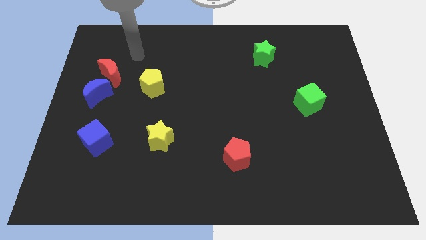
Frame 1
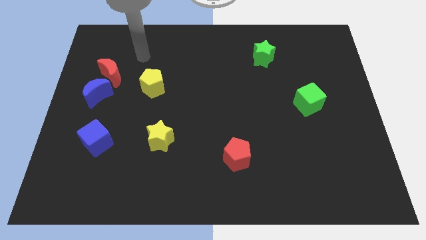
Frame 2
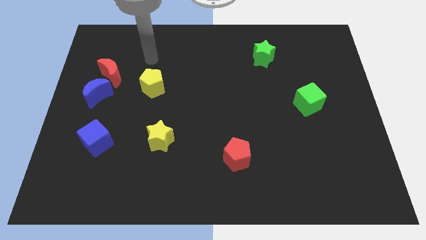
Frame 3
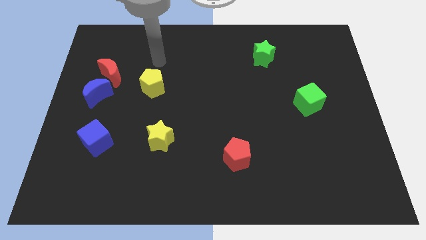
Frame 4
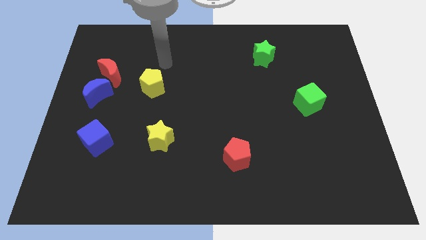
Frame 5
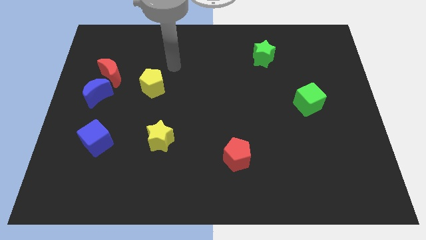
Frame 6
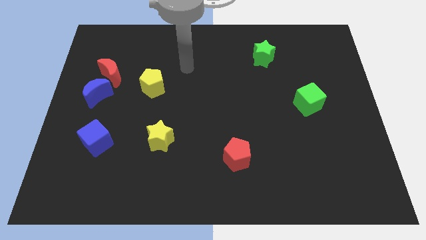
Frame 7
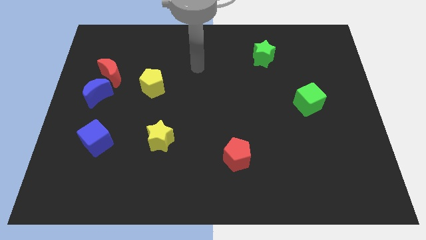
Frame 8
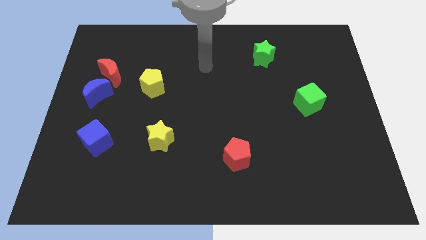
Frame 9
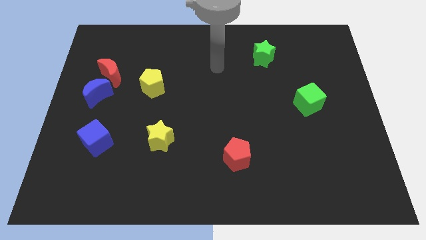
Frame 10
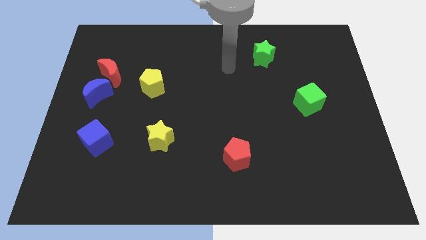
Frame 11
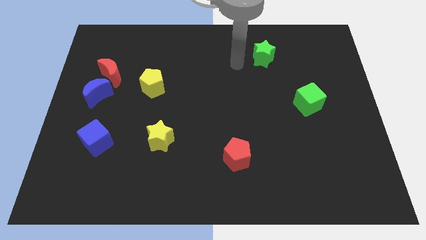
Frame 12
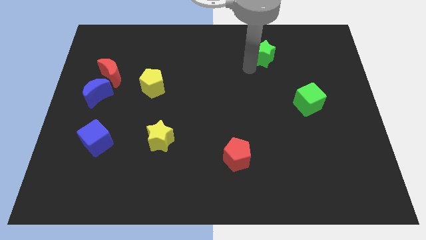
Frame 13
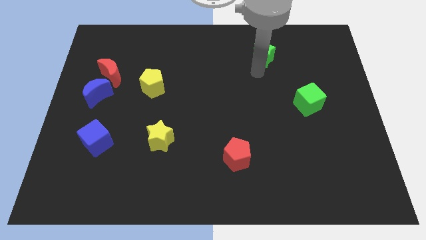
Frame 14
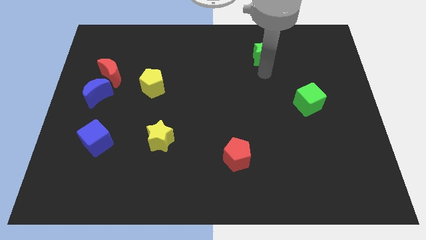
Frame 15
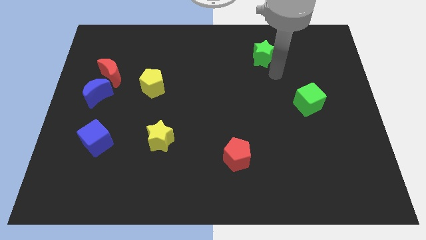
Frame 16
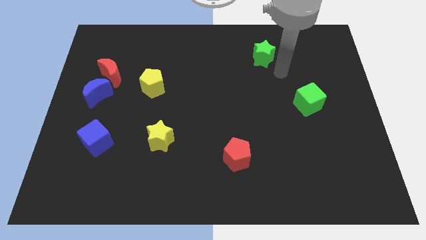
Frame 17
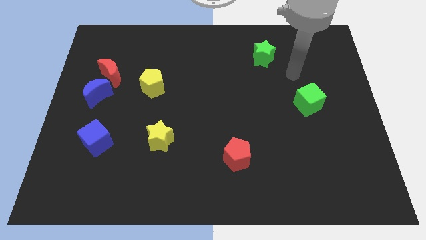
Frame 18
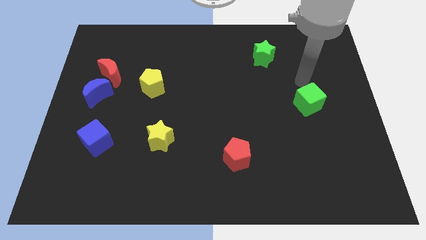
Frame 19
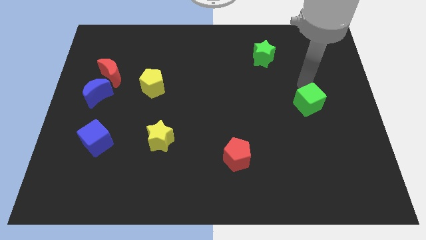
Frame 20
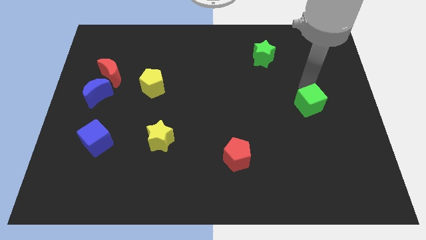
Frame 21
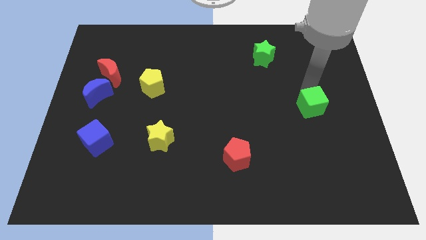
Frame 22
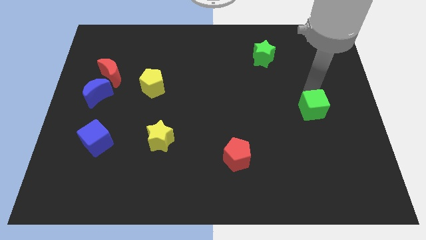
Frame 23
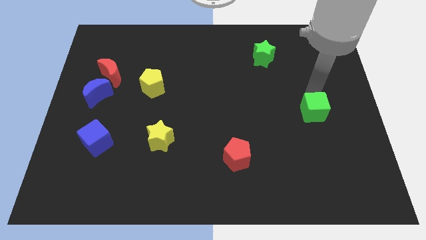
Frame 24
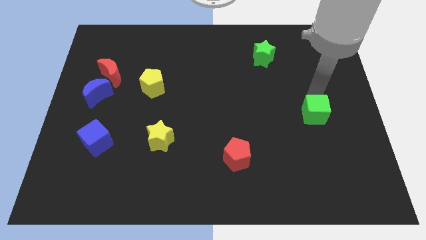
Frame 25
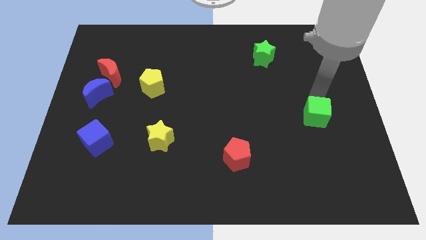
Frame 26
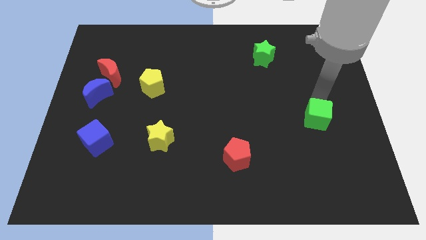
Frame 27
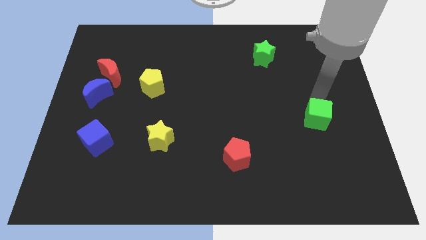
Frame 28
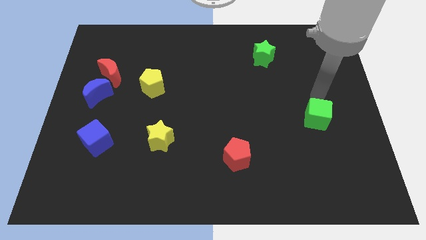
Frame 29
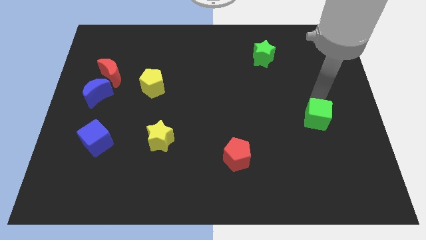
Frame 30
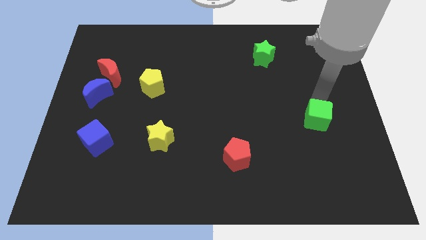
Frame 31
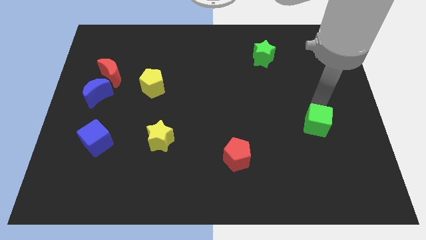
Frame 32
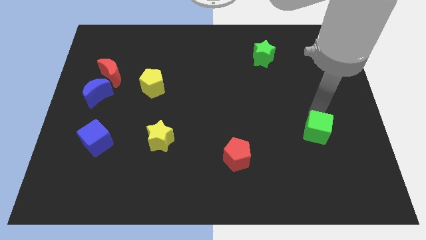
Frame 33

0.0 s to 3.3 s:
slide the green cube down slightly

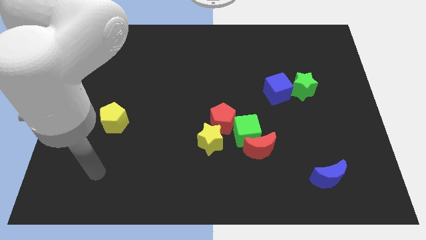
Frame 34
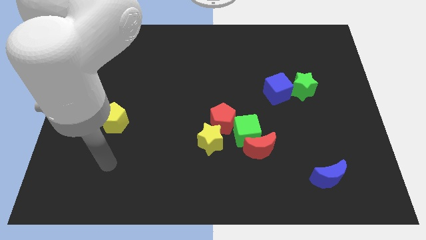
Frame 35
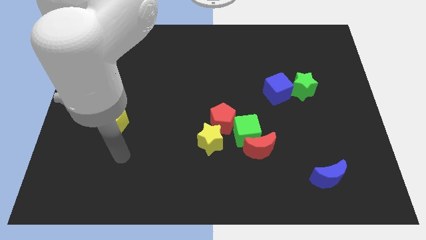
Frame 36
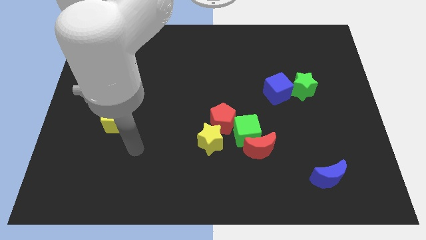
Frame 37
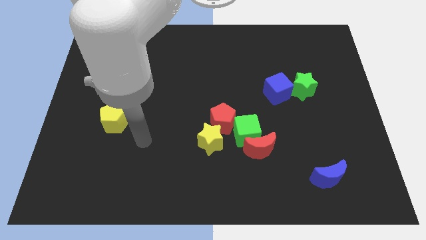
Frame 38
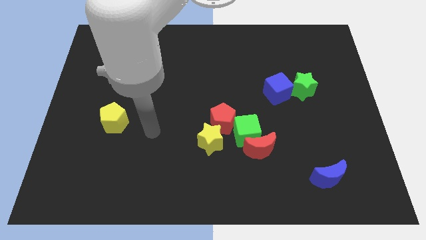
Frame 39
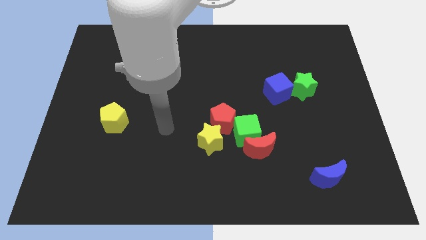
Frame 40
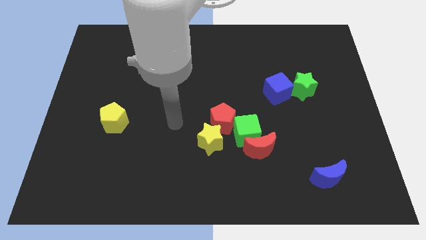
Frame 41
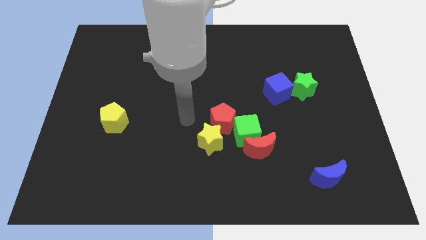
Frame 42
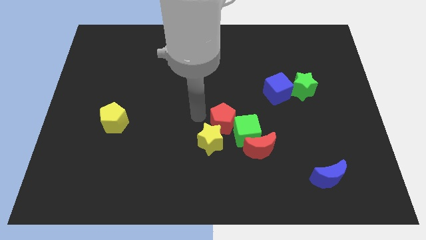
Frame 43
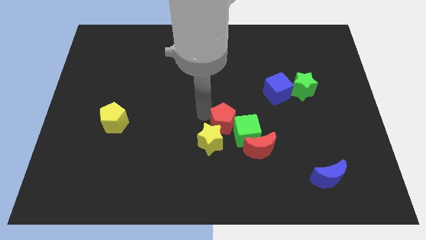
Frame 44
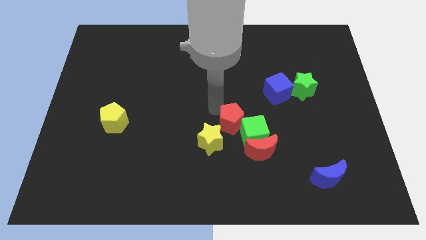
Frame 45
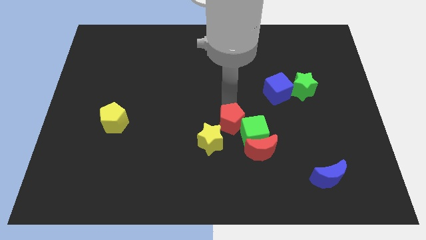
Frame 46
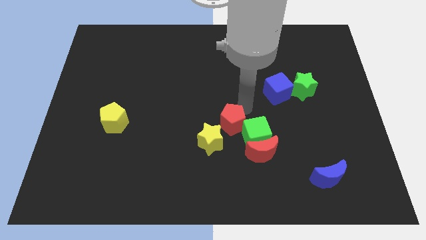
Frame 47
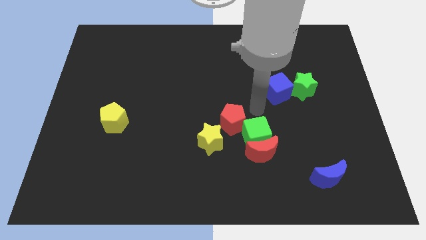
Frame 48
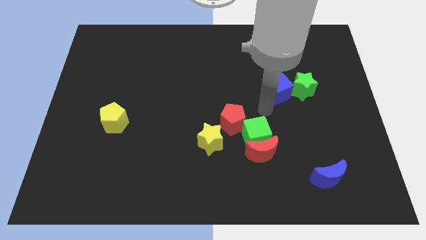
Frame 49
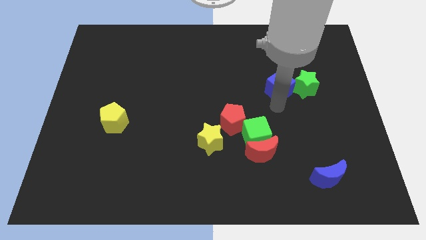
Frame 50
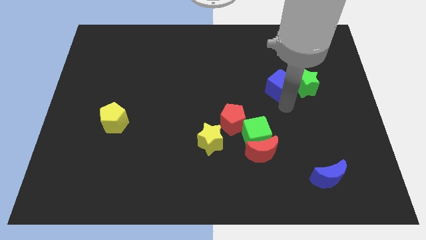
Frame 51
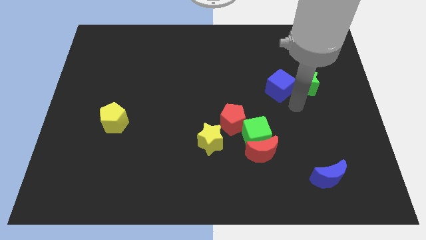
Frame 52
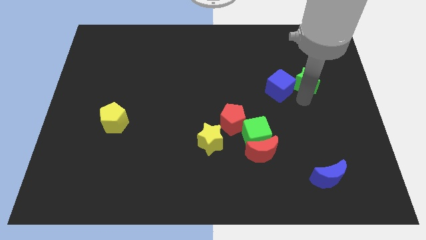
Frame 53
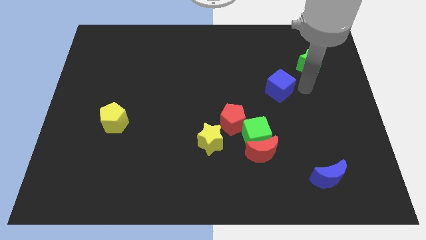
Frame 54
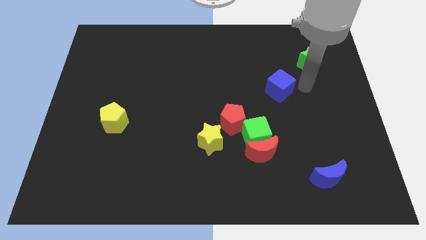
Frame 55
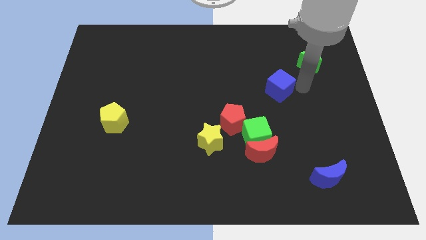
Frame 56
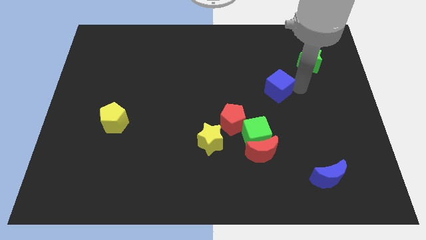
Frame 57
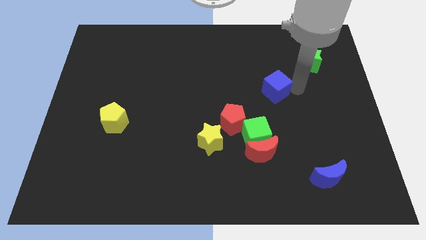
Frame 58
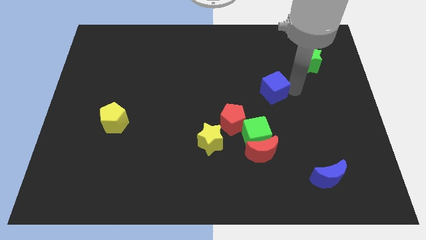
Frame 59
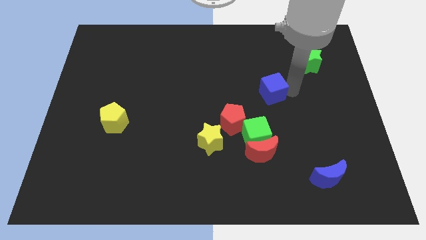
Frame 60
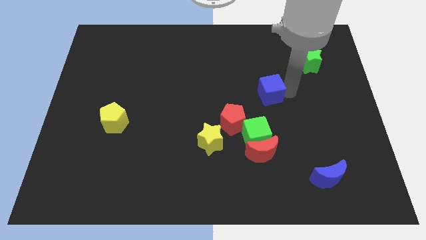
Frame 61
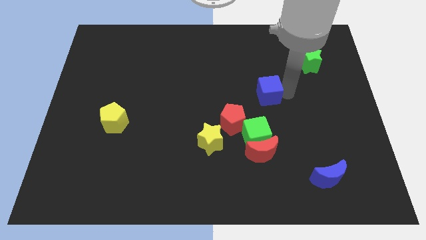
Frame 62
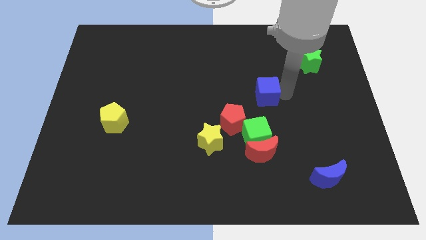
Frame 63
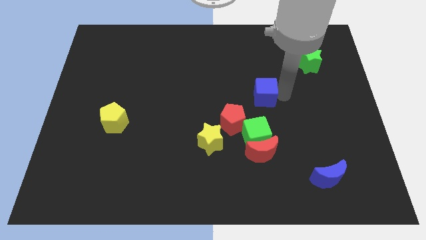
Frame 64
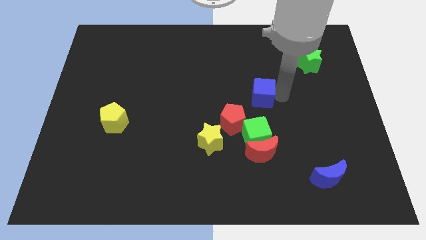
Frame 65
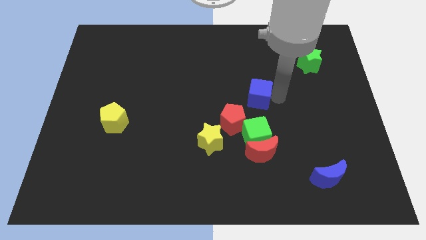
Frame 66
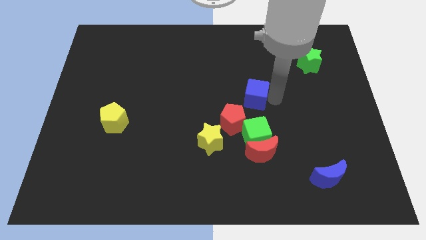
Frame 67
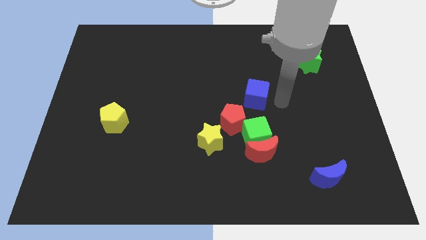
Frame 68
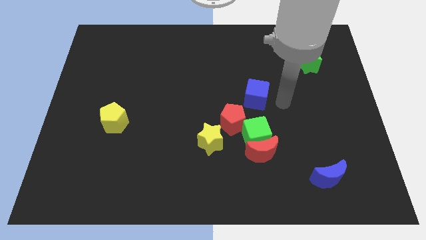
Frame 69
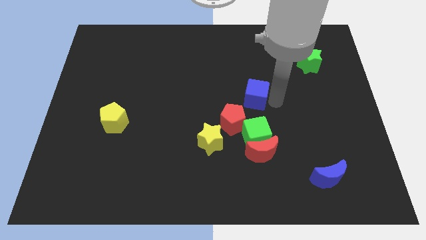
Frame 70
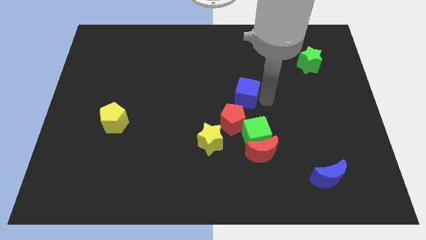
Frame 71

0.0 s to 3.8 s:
slightly slide the blue cube to the left

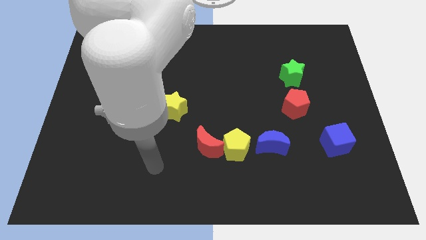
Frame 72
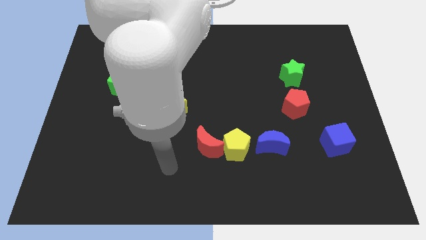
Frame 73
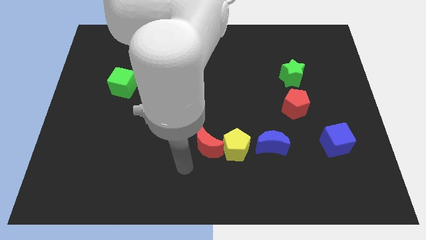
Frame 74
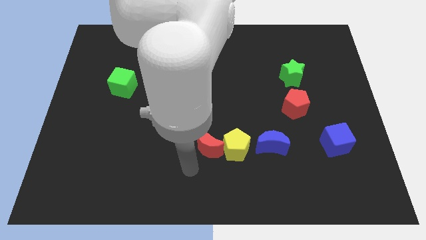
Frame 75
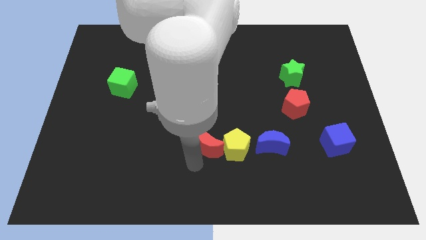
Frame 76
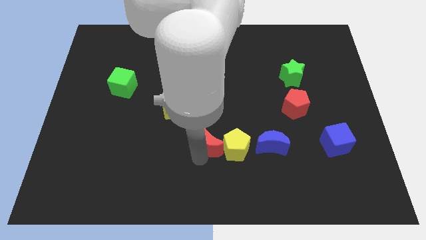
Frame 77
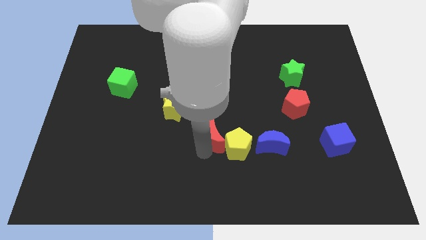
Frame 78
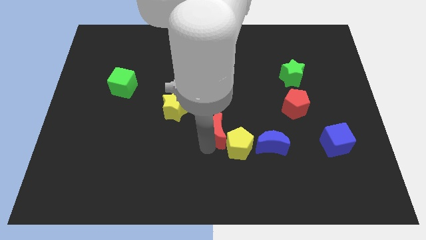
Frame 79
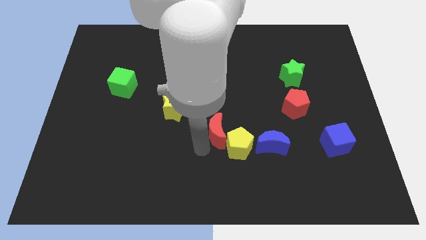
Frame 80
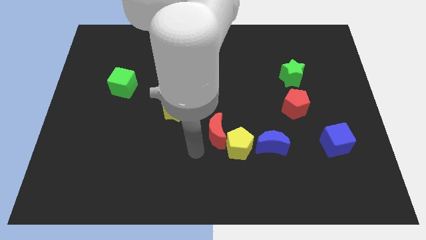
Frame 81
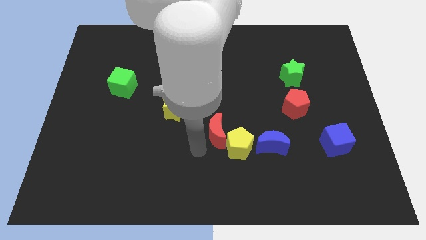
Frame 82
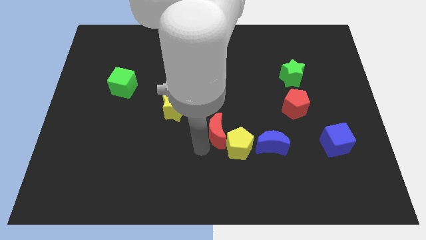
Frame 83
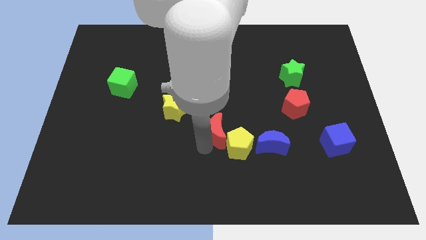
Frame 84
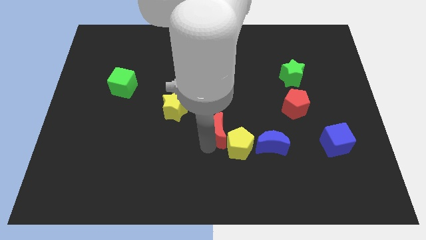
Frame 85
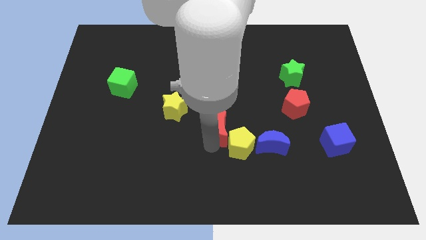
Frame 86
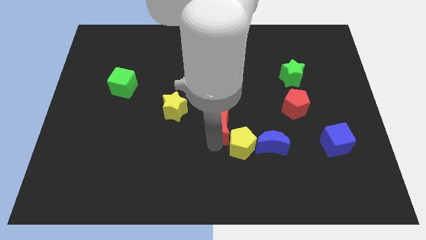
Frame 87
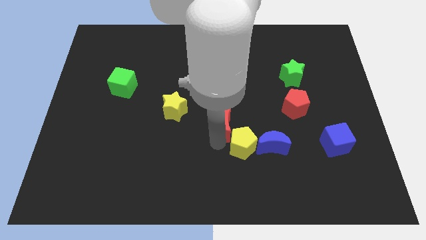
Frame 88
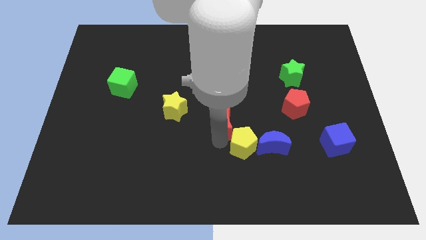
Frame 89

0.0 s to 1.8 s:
push the red moon up and to the right a little
